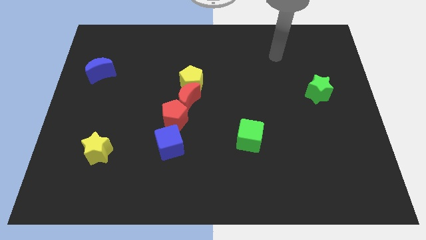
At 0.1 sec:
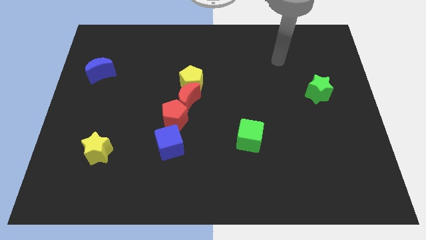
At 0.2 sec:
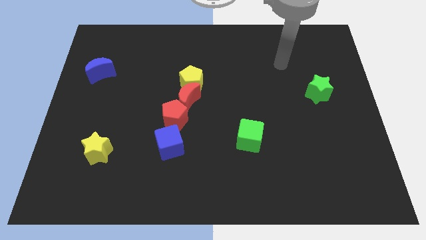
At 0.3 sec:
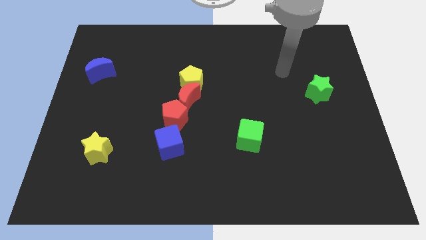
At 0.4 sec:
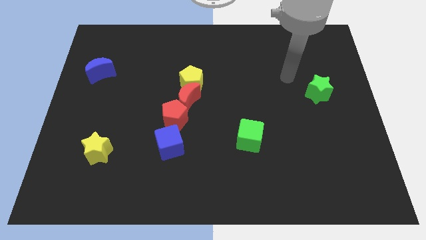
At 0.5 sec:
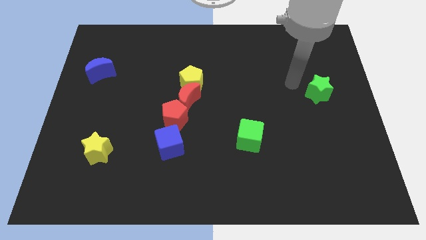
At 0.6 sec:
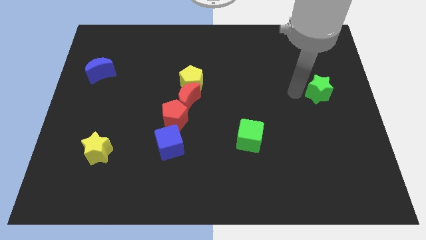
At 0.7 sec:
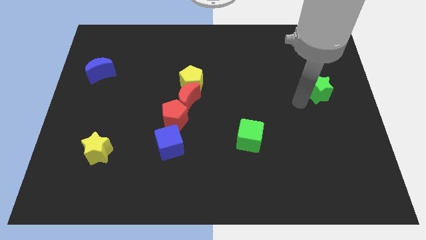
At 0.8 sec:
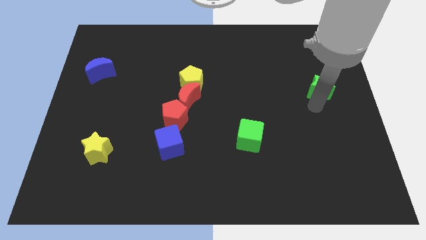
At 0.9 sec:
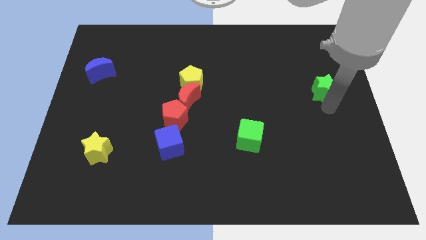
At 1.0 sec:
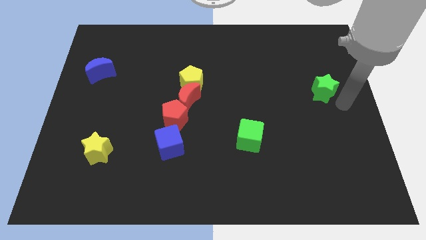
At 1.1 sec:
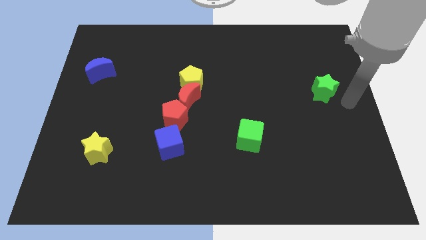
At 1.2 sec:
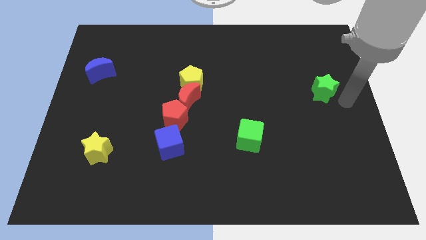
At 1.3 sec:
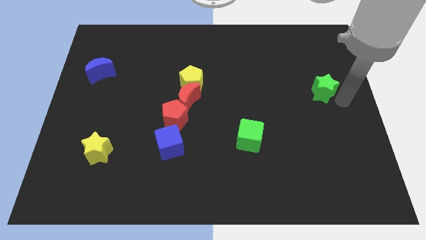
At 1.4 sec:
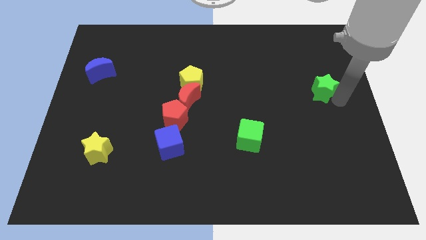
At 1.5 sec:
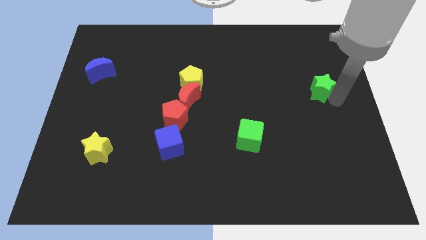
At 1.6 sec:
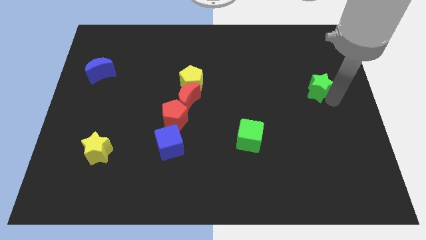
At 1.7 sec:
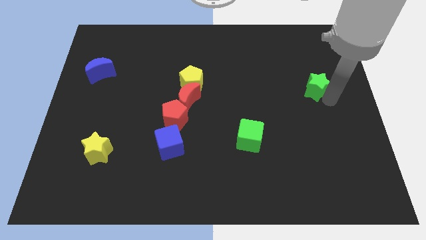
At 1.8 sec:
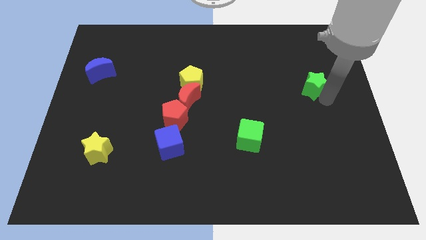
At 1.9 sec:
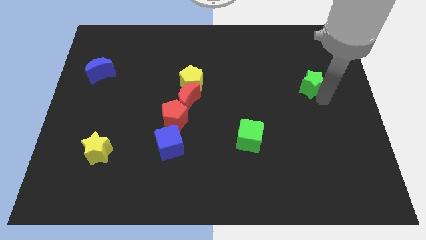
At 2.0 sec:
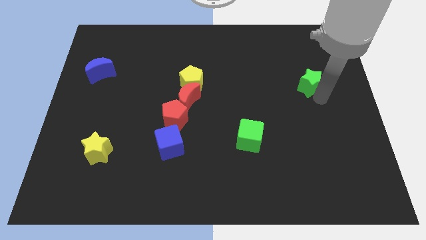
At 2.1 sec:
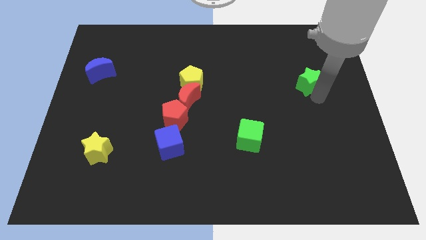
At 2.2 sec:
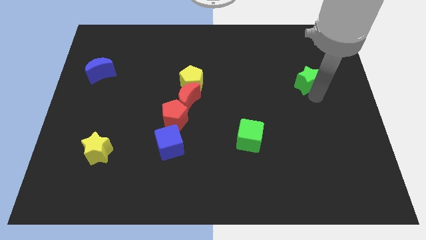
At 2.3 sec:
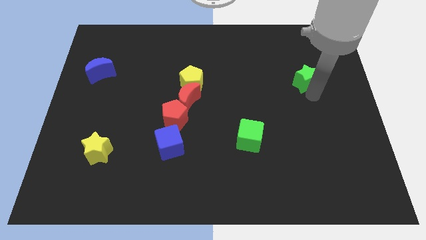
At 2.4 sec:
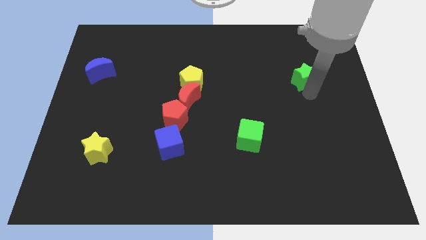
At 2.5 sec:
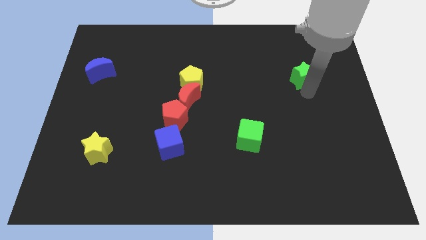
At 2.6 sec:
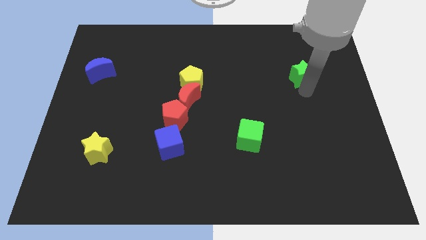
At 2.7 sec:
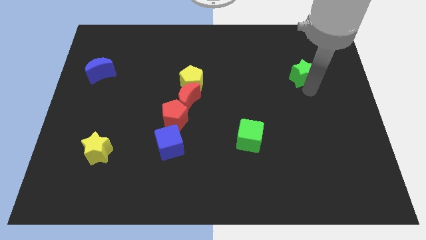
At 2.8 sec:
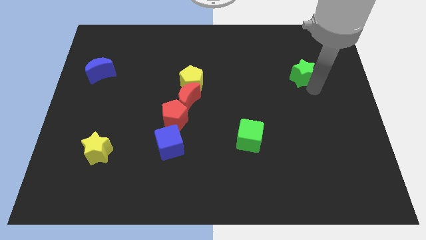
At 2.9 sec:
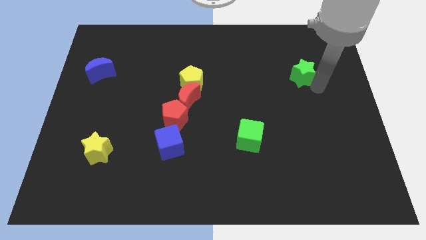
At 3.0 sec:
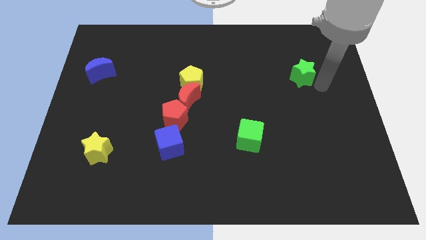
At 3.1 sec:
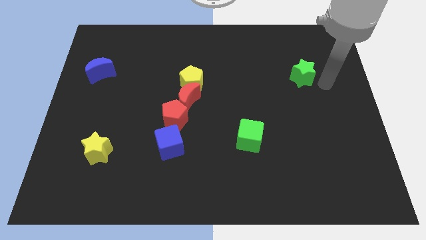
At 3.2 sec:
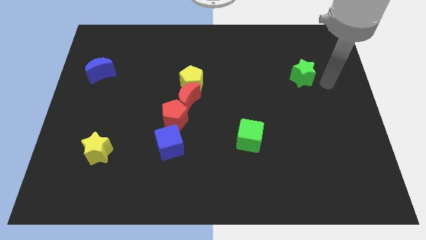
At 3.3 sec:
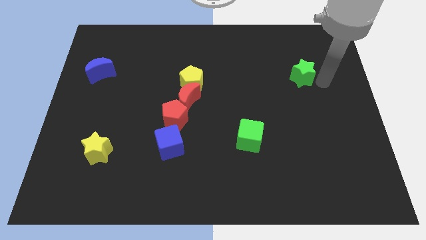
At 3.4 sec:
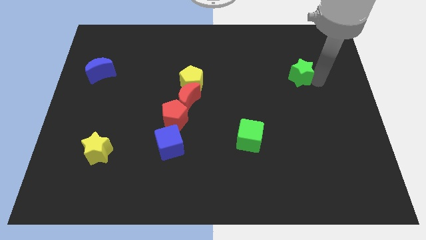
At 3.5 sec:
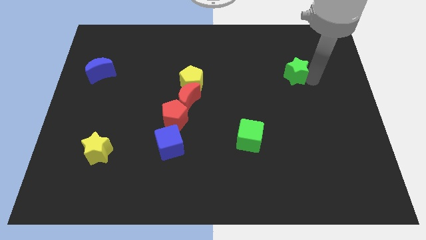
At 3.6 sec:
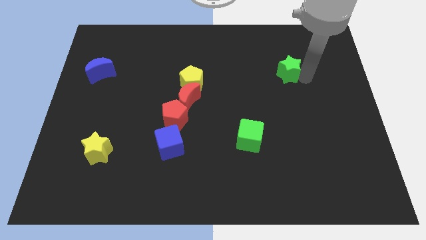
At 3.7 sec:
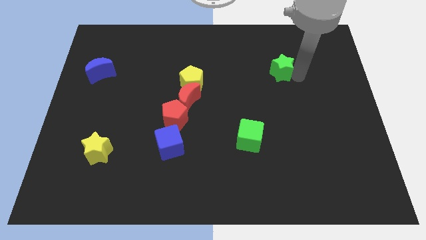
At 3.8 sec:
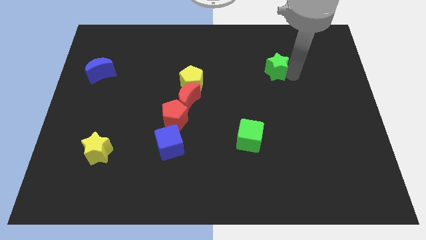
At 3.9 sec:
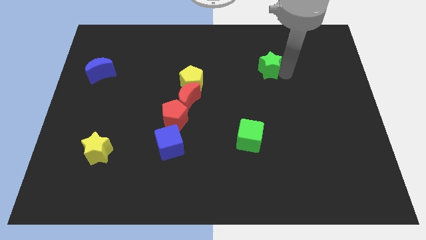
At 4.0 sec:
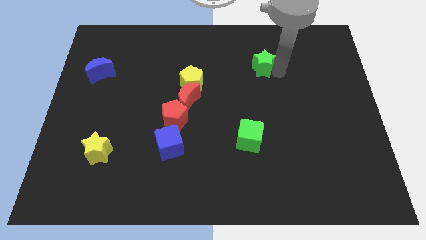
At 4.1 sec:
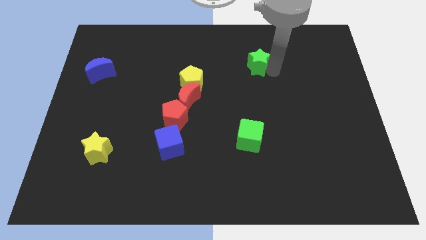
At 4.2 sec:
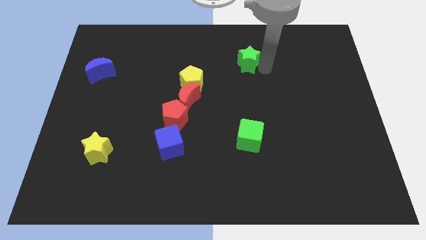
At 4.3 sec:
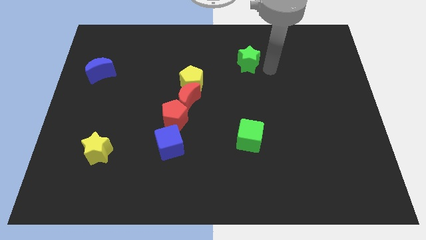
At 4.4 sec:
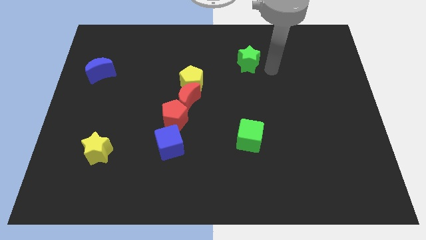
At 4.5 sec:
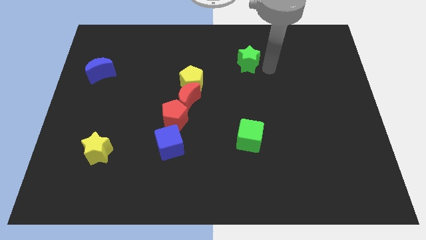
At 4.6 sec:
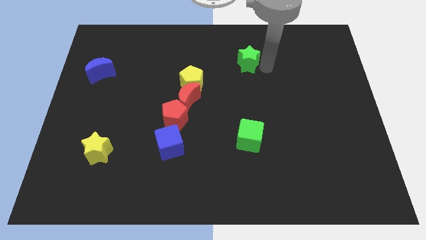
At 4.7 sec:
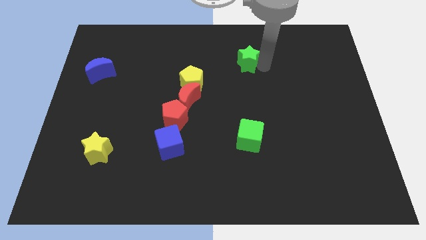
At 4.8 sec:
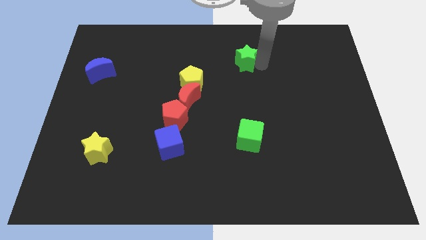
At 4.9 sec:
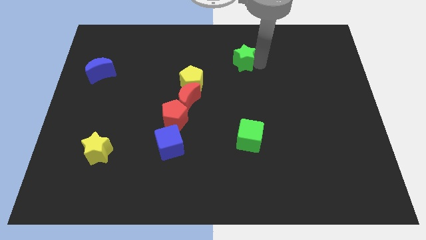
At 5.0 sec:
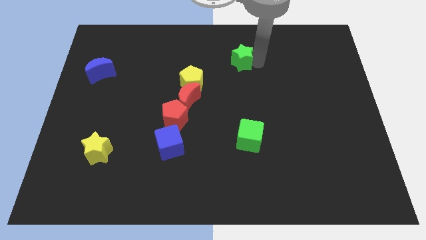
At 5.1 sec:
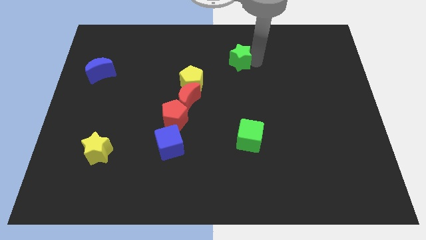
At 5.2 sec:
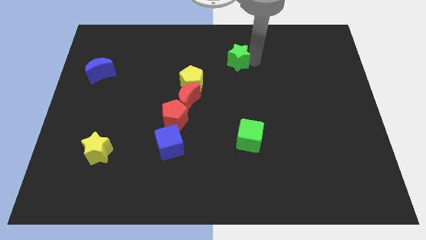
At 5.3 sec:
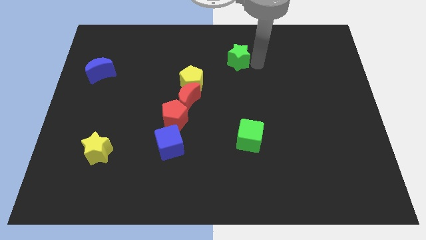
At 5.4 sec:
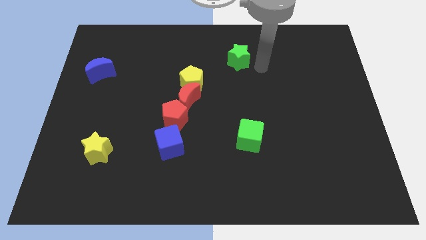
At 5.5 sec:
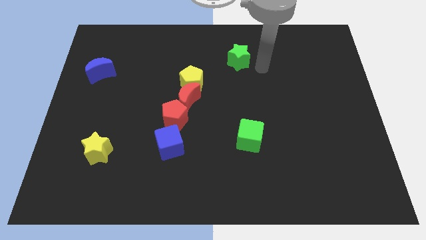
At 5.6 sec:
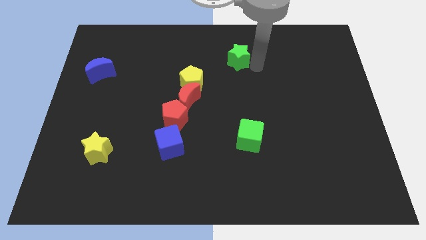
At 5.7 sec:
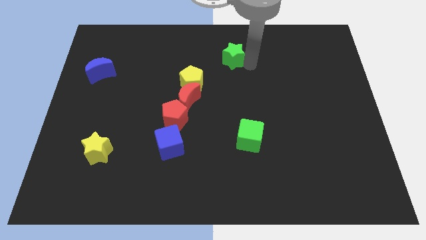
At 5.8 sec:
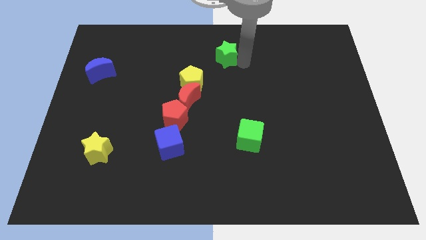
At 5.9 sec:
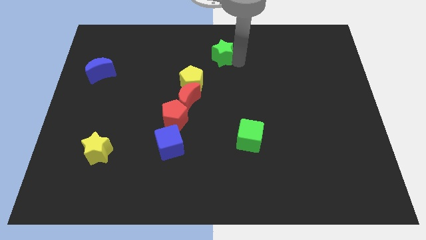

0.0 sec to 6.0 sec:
slide the green star to the towards your base

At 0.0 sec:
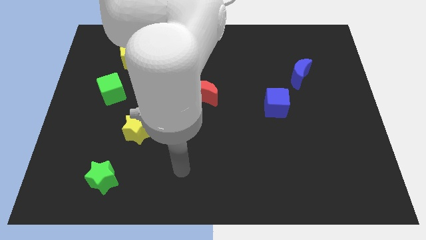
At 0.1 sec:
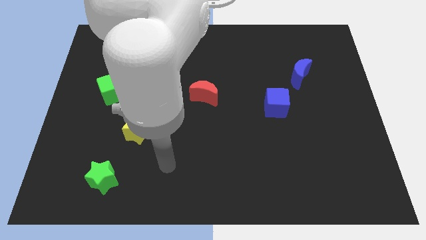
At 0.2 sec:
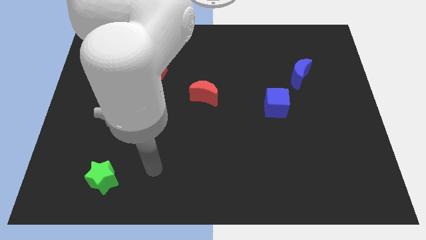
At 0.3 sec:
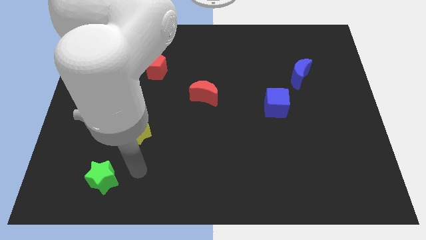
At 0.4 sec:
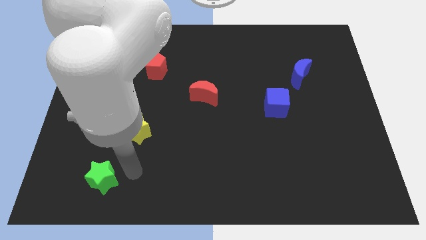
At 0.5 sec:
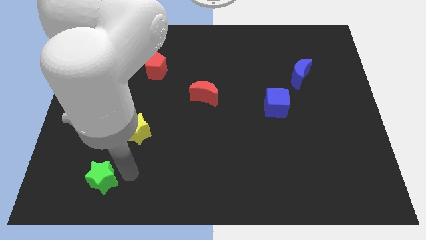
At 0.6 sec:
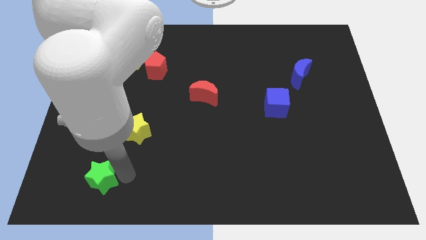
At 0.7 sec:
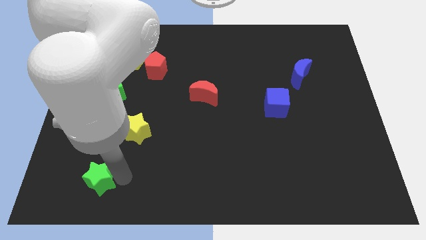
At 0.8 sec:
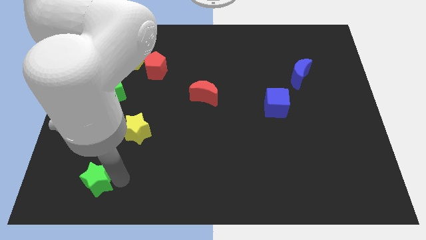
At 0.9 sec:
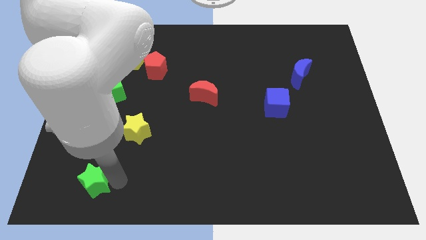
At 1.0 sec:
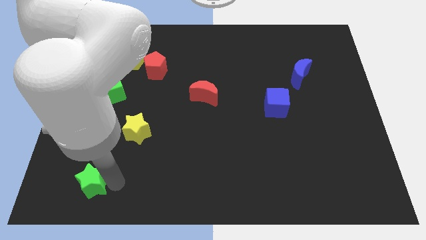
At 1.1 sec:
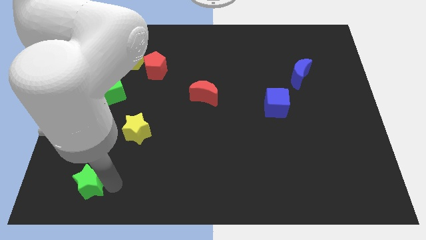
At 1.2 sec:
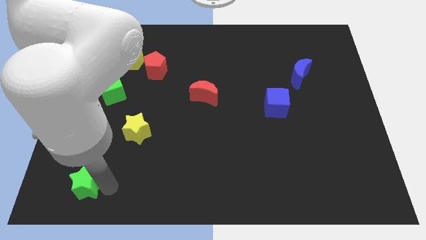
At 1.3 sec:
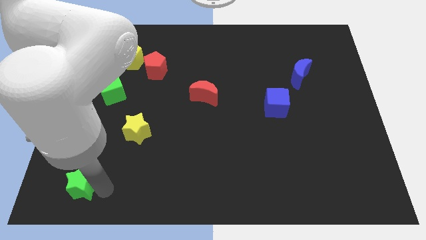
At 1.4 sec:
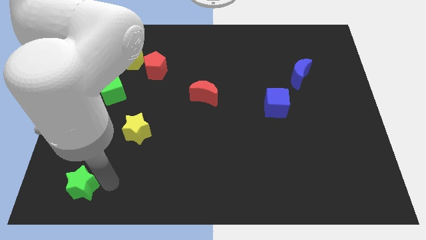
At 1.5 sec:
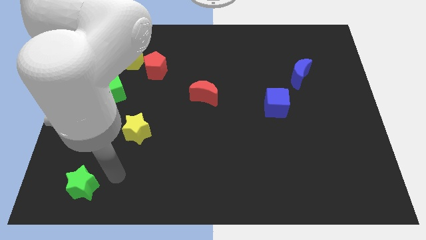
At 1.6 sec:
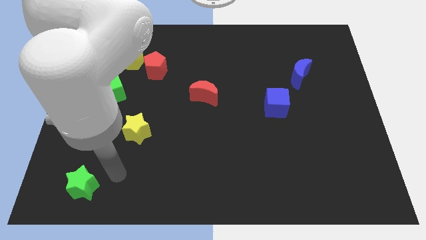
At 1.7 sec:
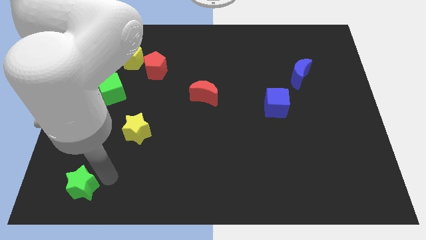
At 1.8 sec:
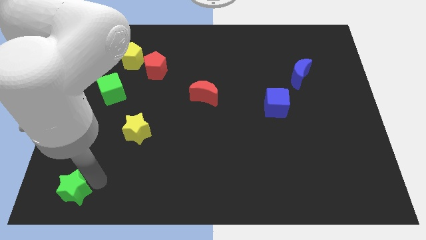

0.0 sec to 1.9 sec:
move the green star to the bottom left of the board
